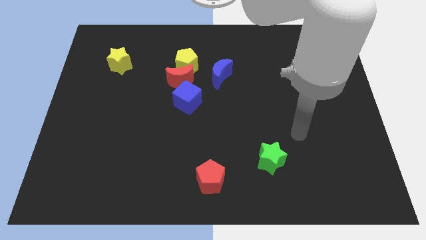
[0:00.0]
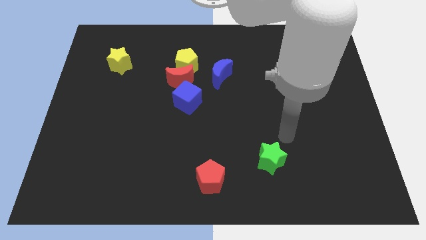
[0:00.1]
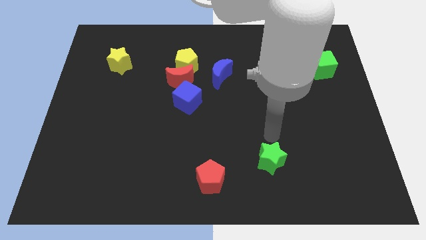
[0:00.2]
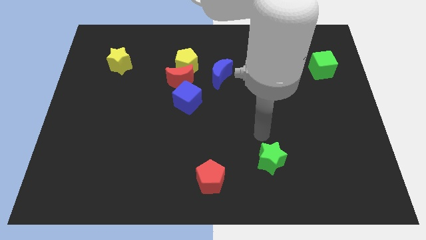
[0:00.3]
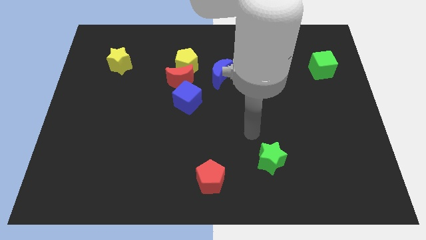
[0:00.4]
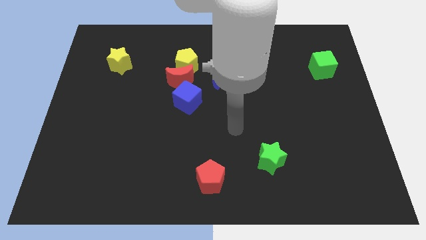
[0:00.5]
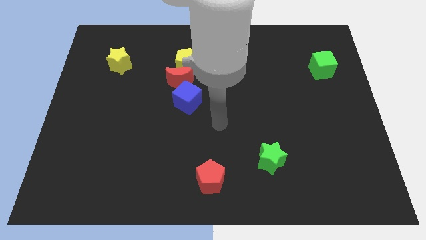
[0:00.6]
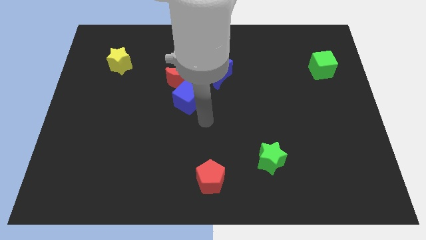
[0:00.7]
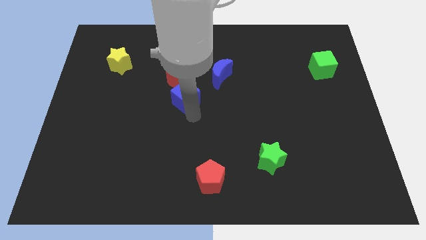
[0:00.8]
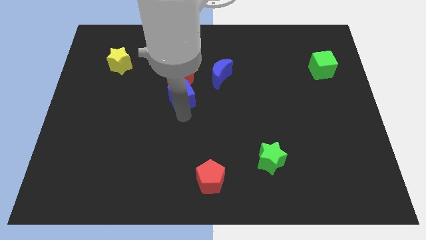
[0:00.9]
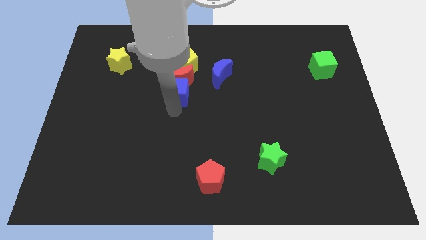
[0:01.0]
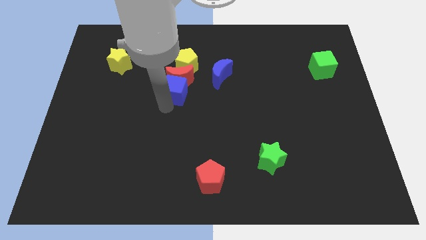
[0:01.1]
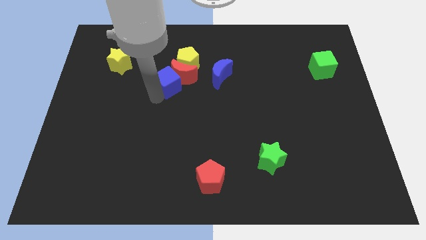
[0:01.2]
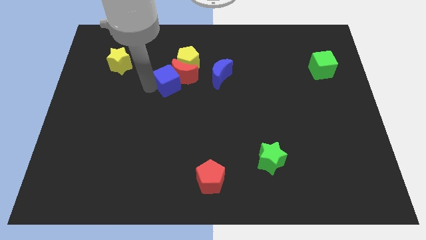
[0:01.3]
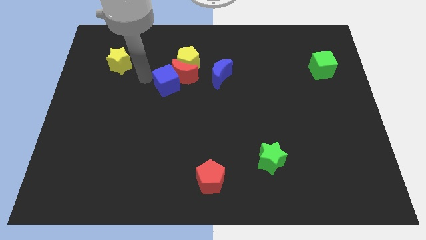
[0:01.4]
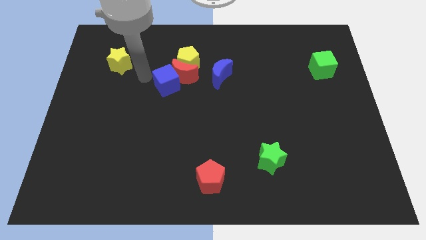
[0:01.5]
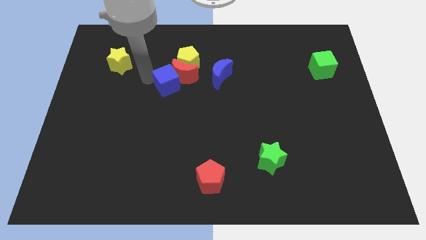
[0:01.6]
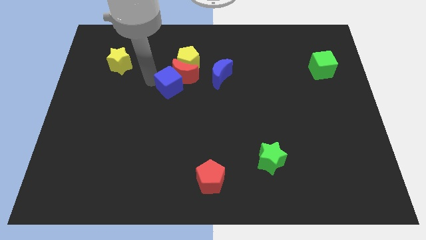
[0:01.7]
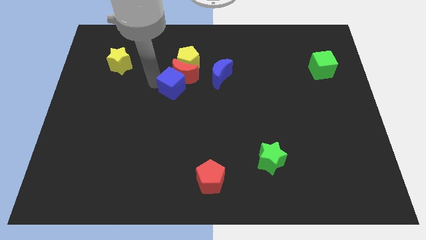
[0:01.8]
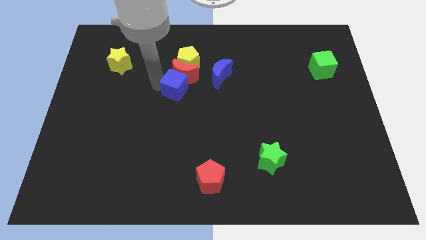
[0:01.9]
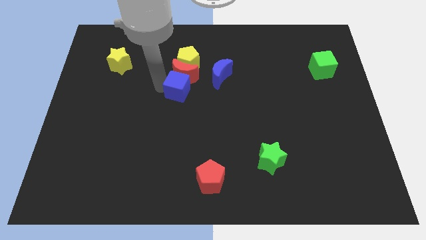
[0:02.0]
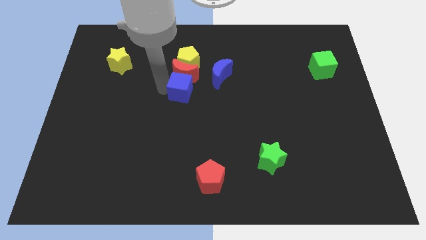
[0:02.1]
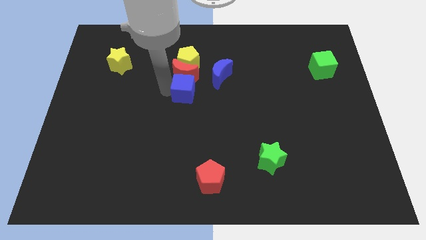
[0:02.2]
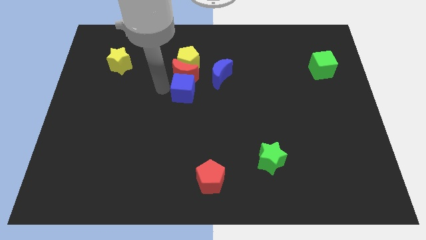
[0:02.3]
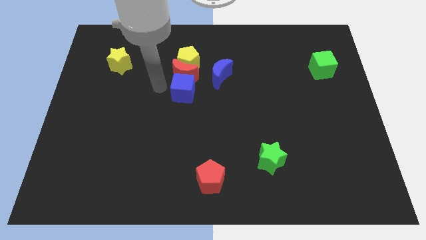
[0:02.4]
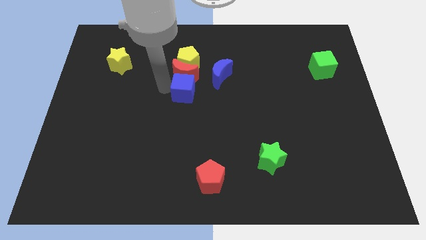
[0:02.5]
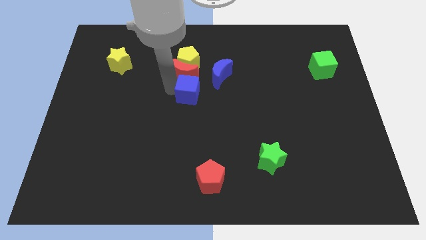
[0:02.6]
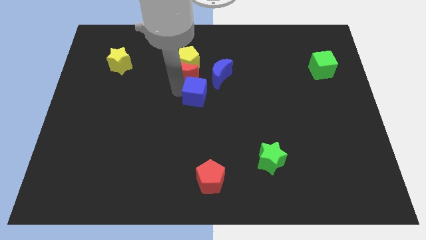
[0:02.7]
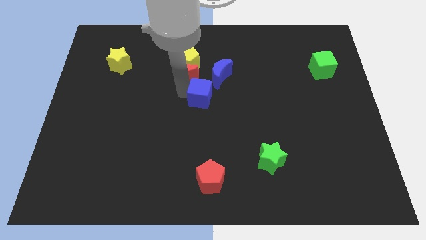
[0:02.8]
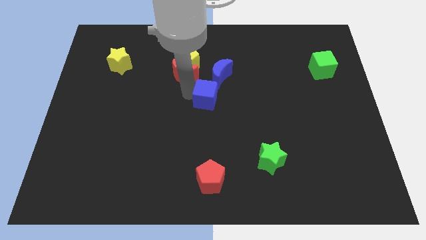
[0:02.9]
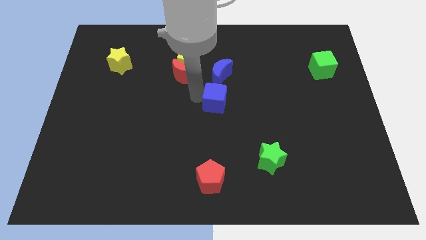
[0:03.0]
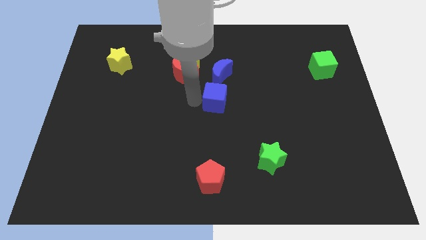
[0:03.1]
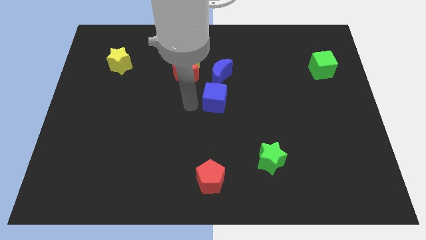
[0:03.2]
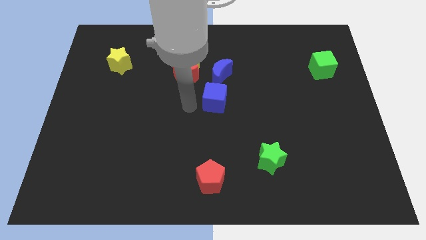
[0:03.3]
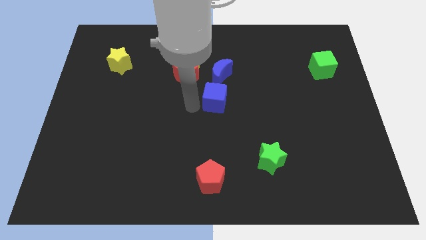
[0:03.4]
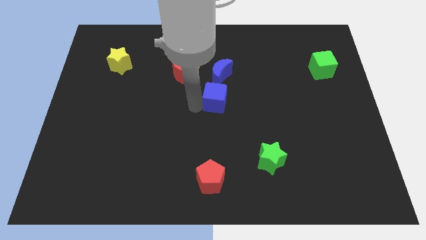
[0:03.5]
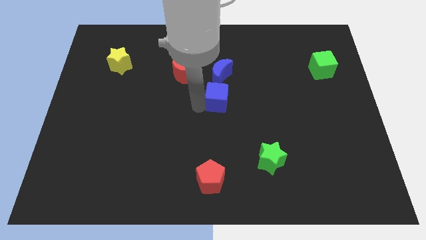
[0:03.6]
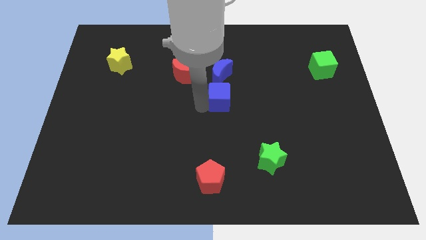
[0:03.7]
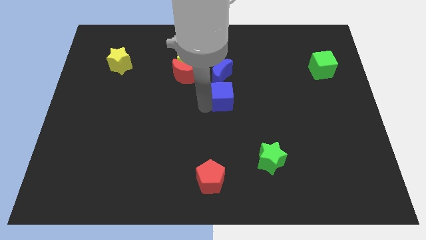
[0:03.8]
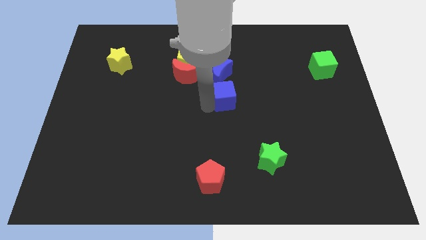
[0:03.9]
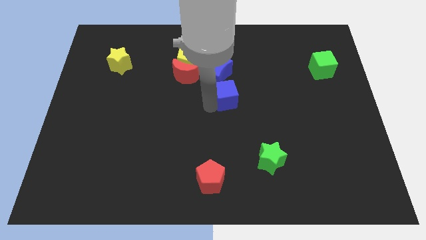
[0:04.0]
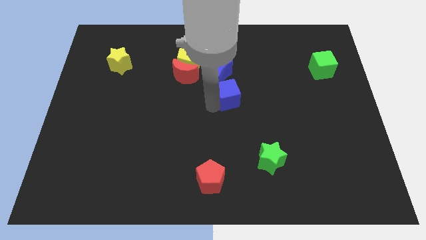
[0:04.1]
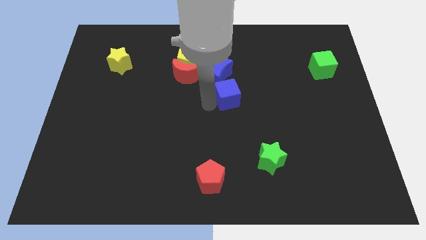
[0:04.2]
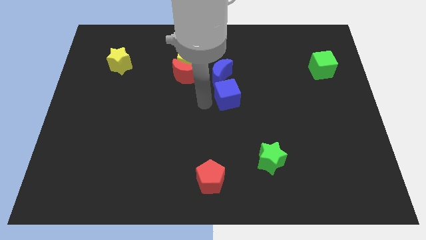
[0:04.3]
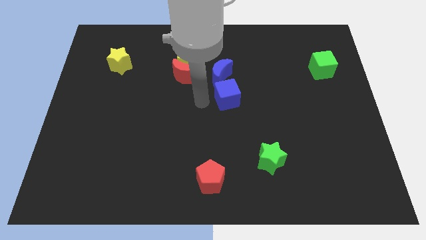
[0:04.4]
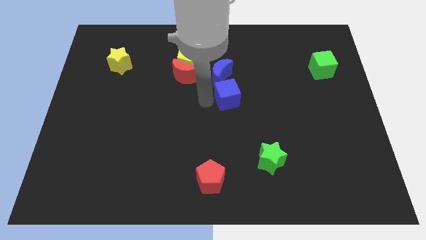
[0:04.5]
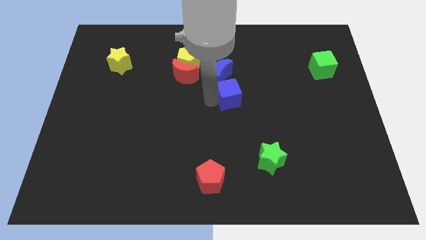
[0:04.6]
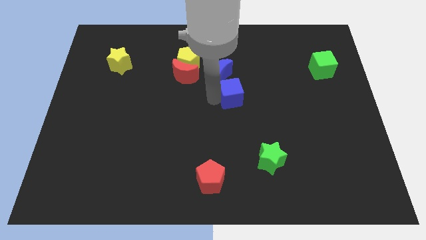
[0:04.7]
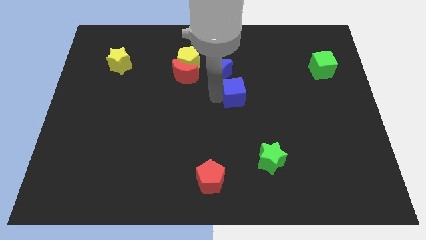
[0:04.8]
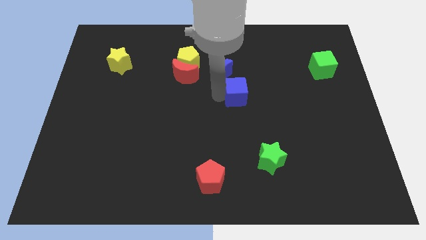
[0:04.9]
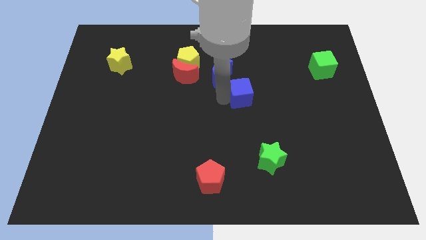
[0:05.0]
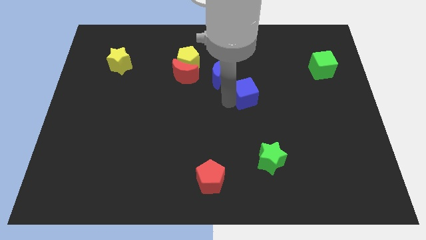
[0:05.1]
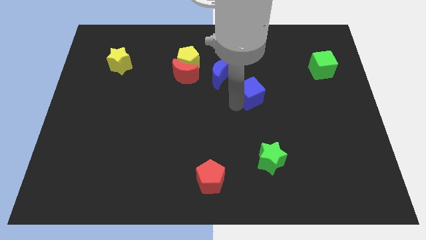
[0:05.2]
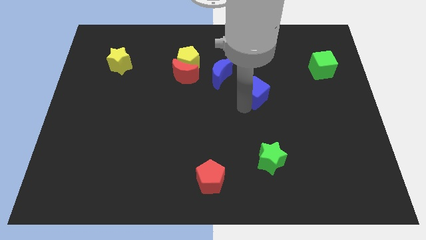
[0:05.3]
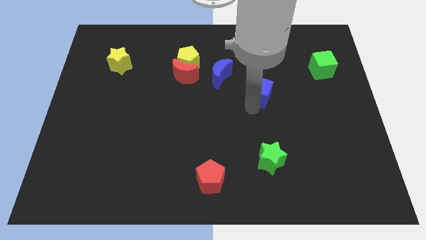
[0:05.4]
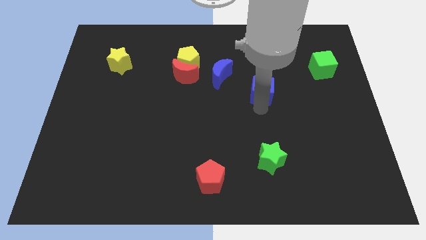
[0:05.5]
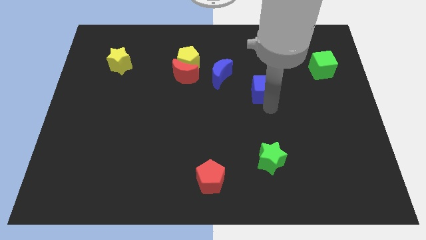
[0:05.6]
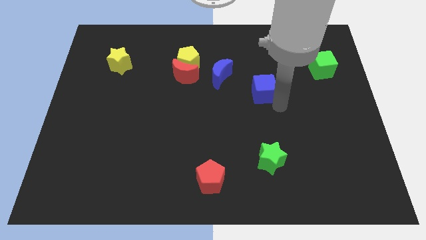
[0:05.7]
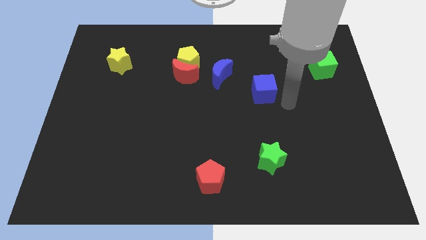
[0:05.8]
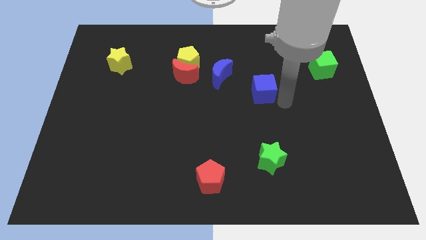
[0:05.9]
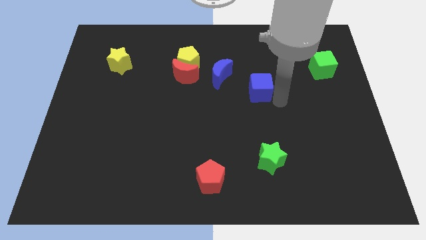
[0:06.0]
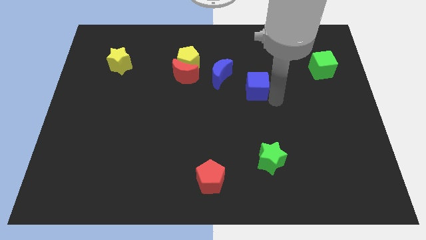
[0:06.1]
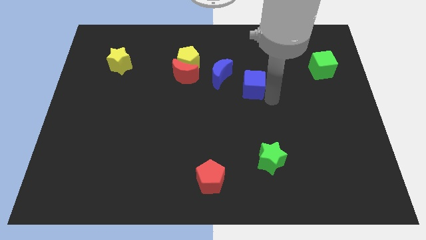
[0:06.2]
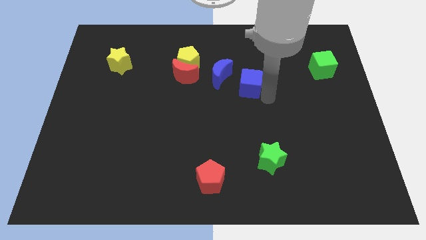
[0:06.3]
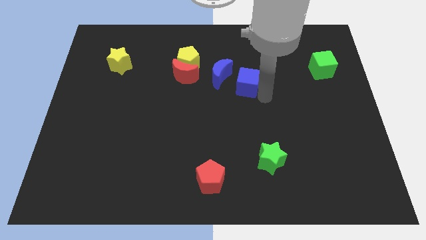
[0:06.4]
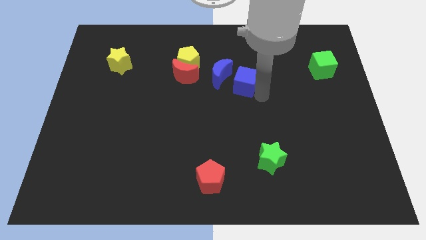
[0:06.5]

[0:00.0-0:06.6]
slide the blue cube just right of the red moon

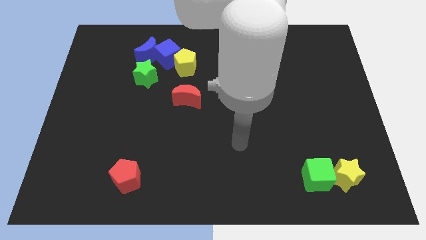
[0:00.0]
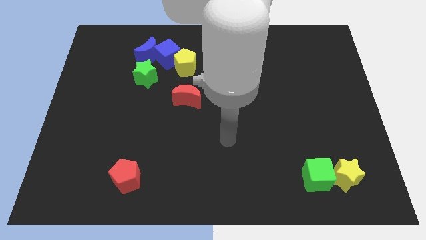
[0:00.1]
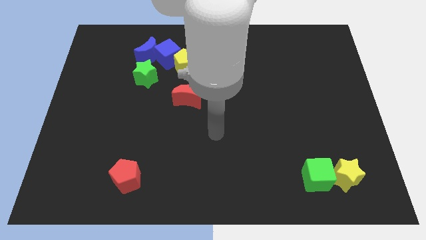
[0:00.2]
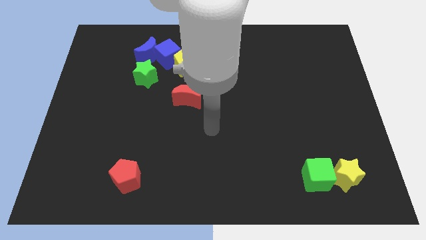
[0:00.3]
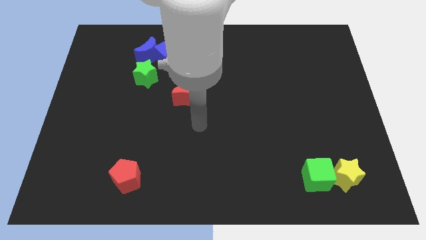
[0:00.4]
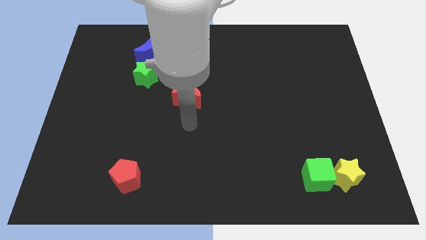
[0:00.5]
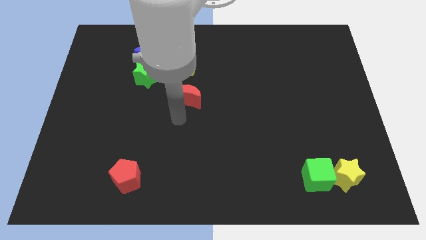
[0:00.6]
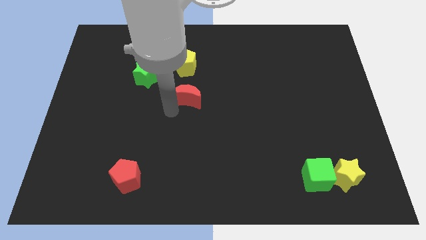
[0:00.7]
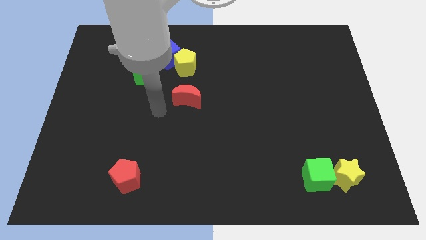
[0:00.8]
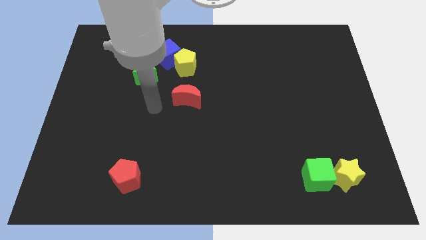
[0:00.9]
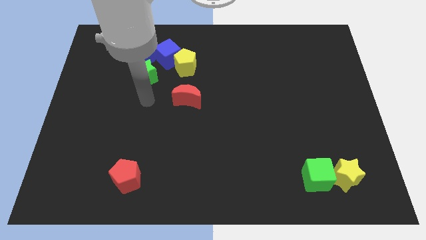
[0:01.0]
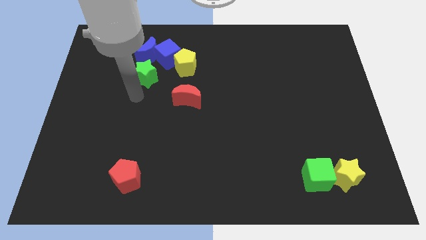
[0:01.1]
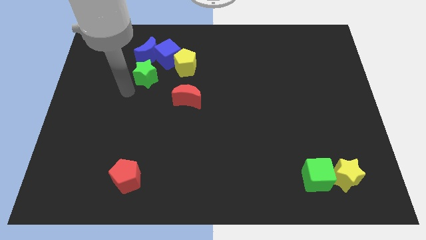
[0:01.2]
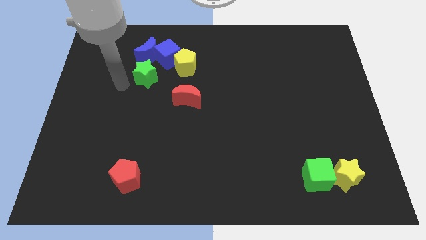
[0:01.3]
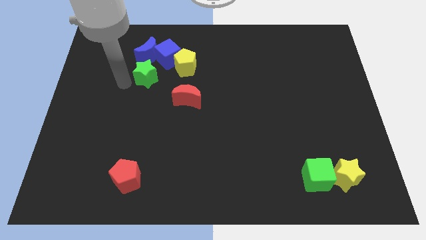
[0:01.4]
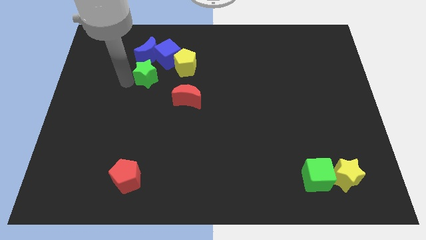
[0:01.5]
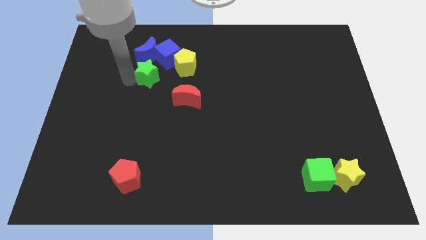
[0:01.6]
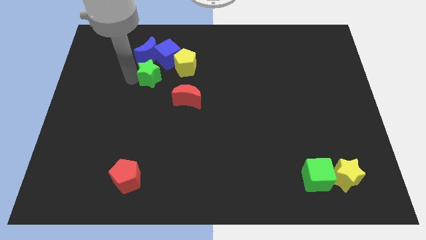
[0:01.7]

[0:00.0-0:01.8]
put the green star diagonally down and to the right of the blue moon
